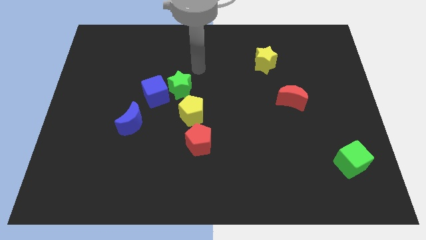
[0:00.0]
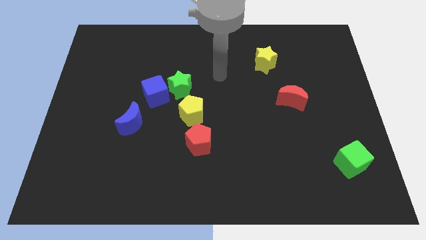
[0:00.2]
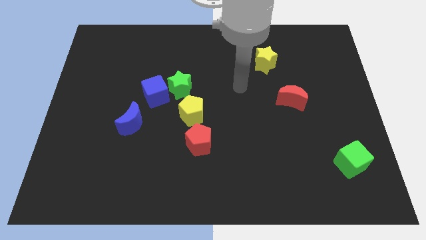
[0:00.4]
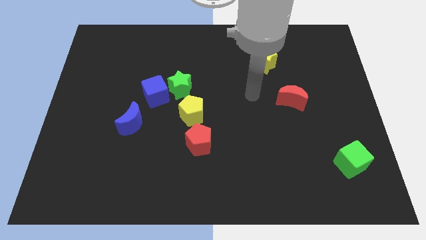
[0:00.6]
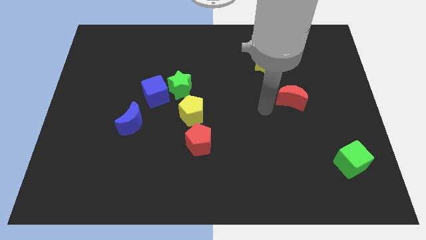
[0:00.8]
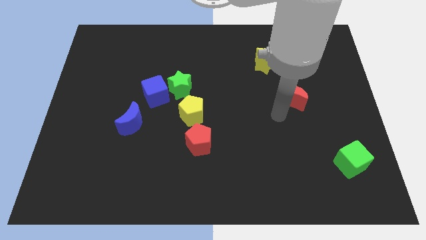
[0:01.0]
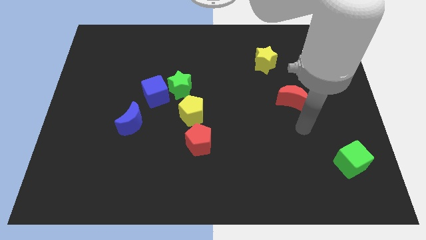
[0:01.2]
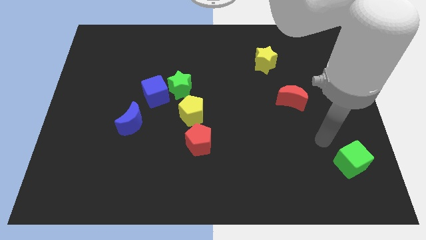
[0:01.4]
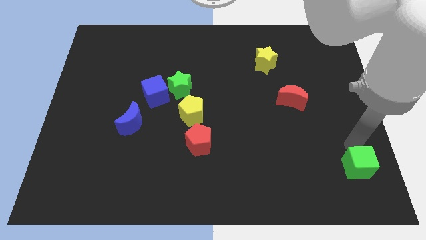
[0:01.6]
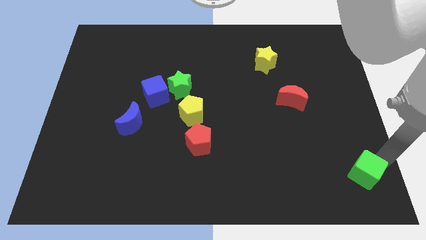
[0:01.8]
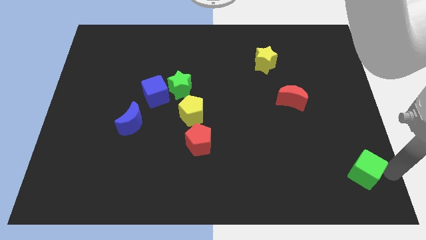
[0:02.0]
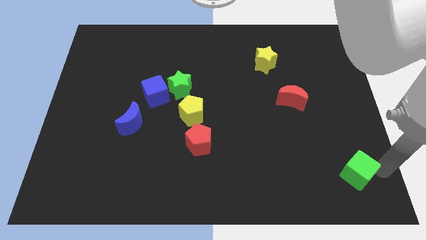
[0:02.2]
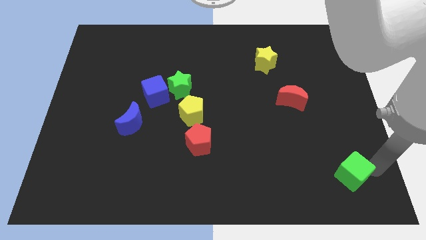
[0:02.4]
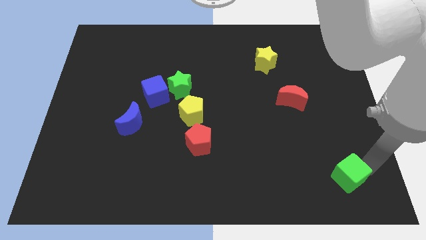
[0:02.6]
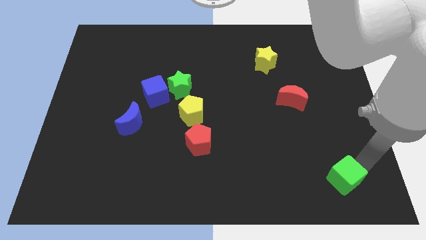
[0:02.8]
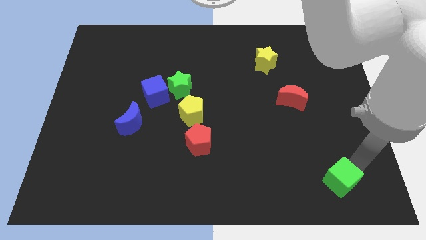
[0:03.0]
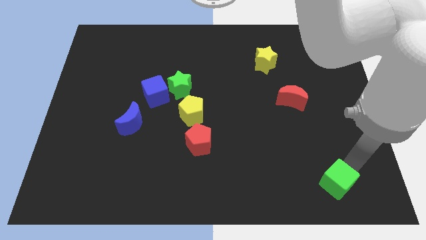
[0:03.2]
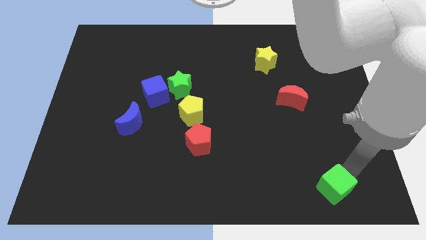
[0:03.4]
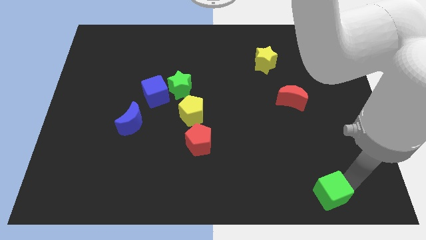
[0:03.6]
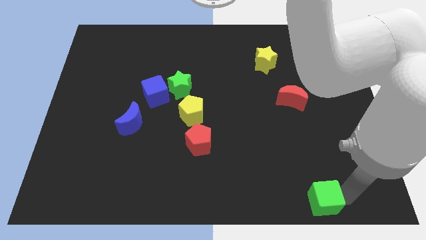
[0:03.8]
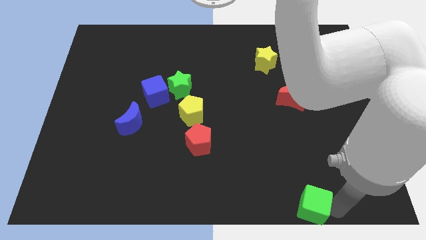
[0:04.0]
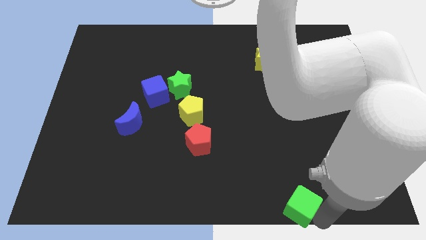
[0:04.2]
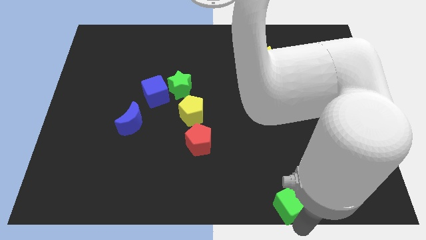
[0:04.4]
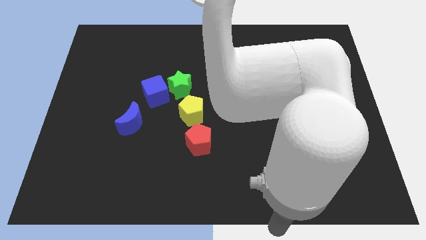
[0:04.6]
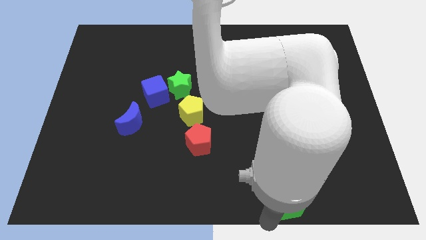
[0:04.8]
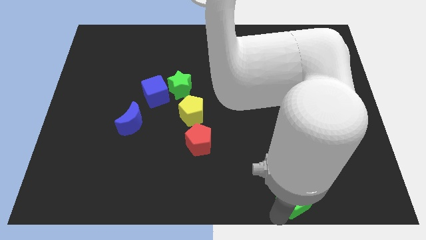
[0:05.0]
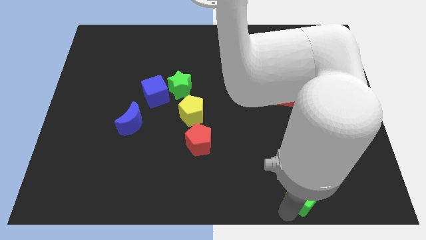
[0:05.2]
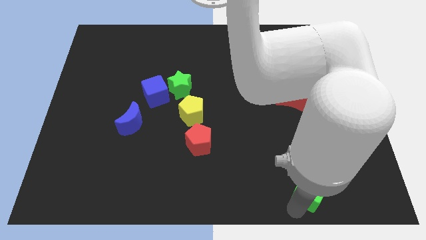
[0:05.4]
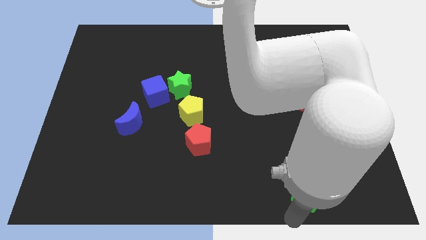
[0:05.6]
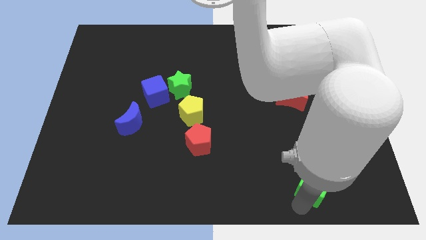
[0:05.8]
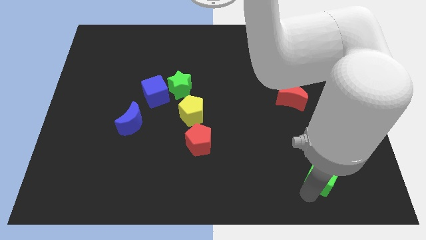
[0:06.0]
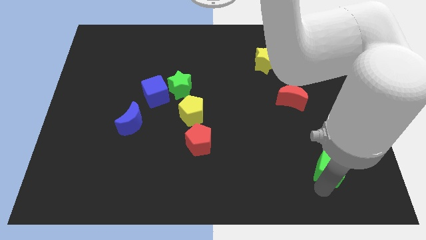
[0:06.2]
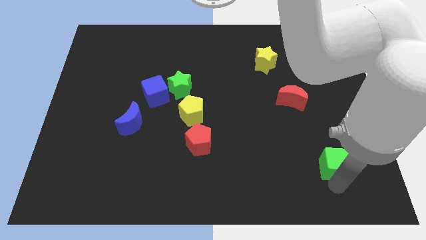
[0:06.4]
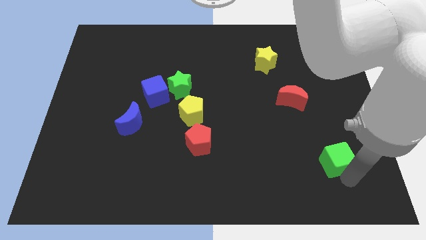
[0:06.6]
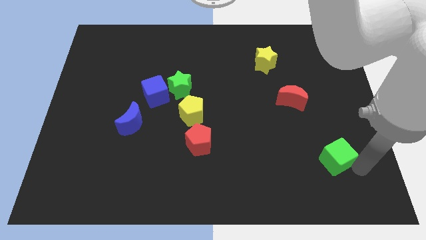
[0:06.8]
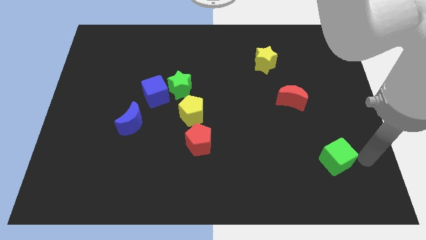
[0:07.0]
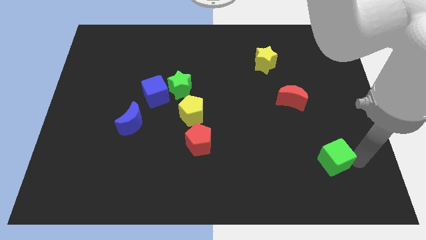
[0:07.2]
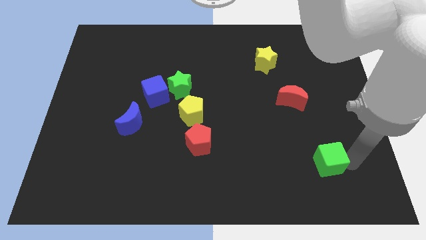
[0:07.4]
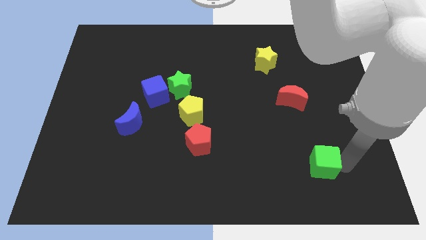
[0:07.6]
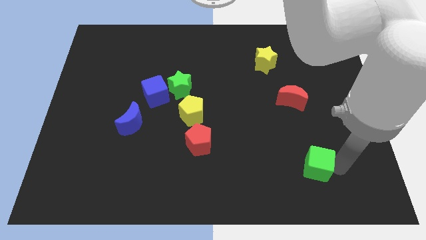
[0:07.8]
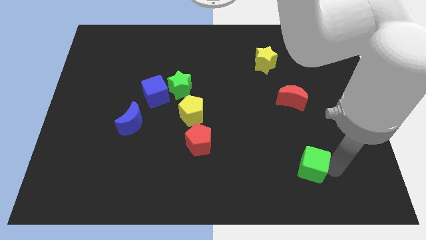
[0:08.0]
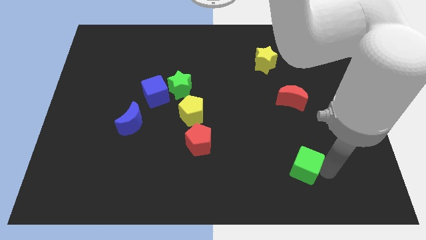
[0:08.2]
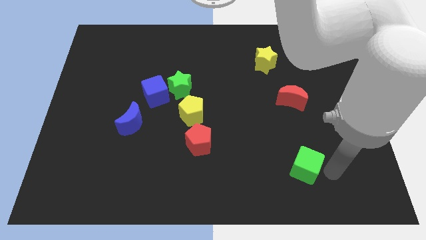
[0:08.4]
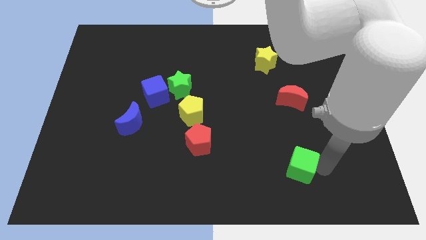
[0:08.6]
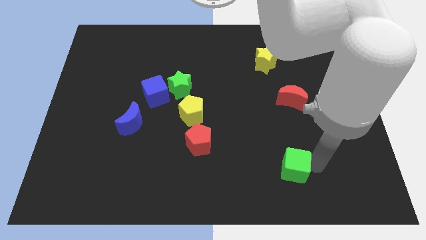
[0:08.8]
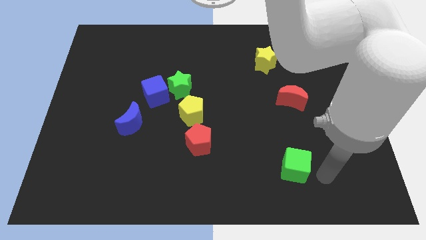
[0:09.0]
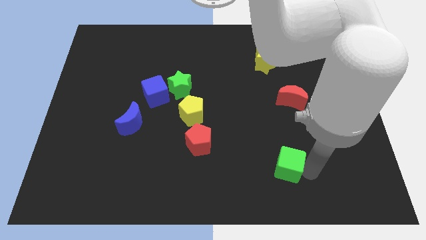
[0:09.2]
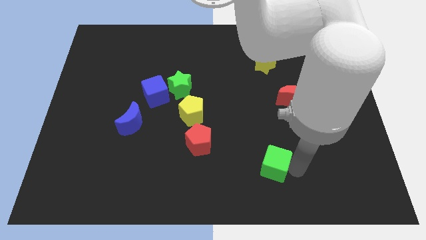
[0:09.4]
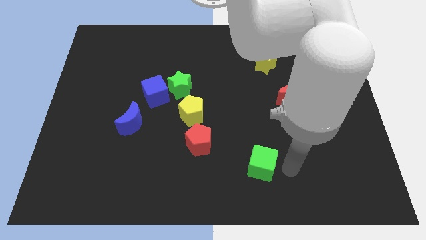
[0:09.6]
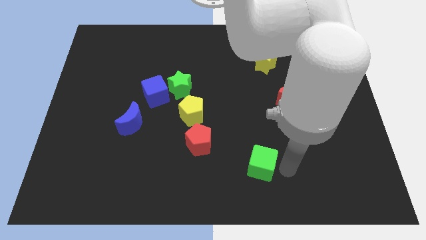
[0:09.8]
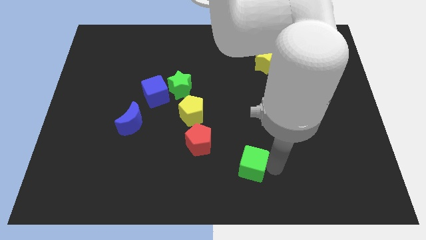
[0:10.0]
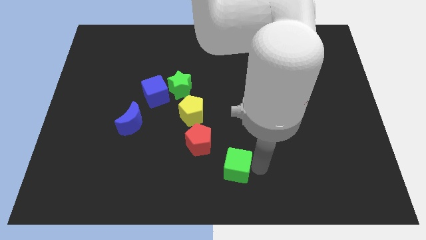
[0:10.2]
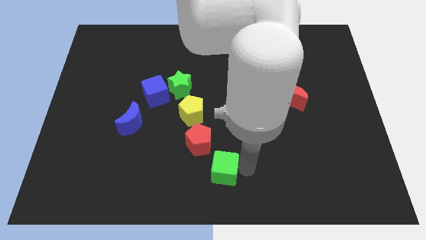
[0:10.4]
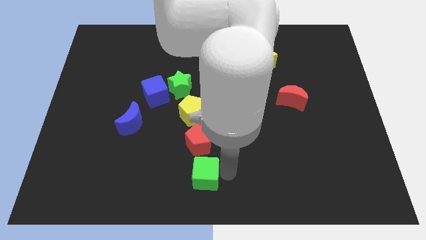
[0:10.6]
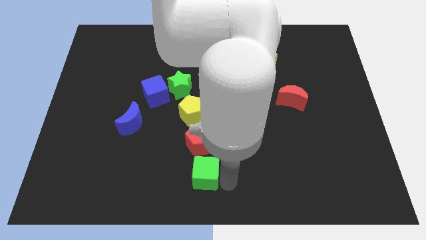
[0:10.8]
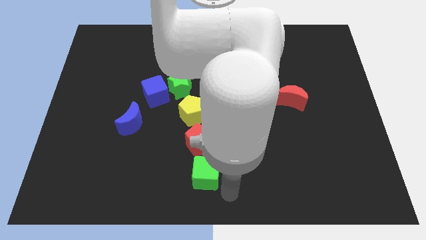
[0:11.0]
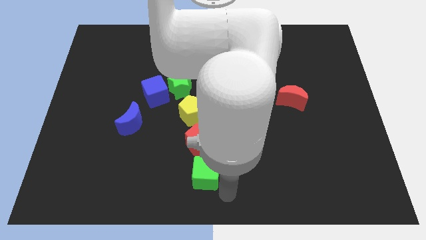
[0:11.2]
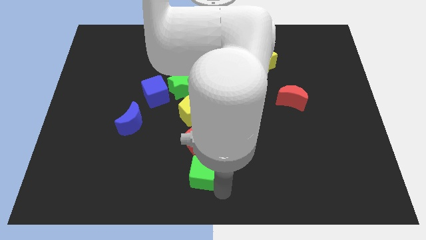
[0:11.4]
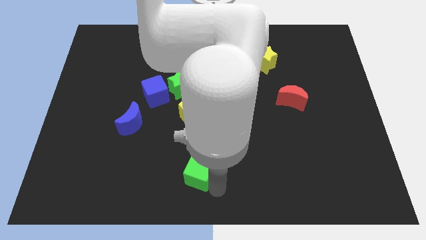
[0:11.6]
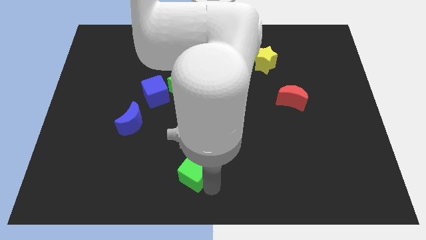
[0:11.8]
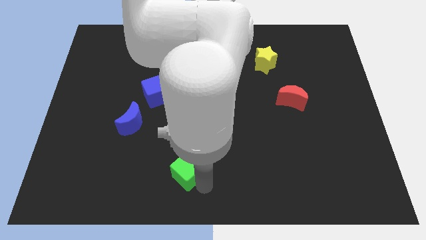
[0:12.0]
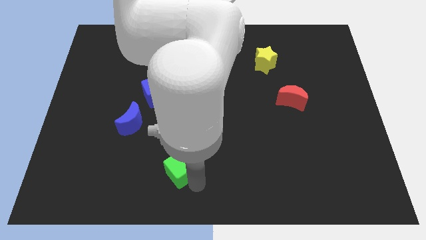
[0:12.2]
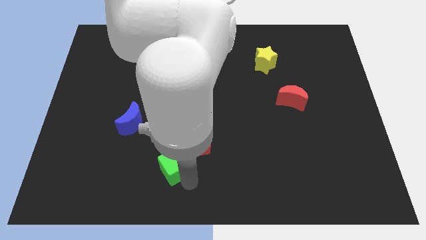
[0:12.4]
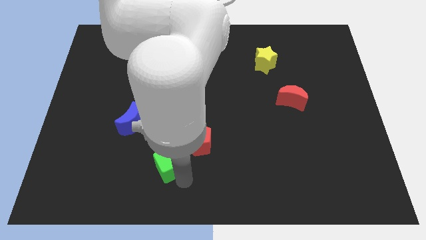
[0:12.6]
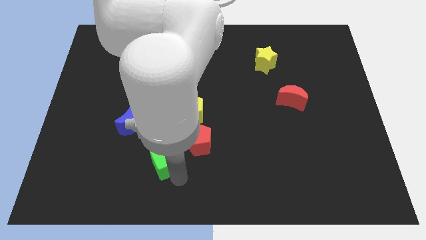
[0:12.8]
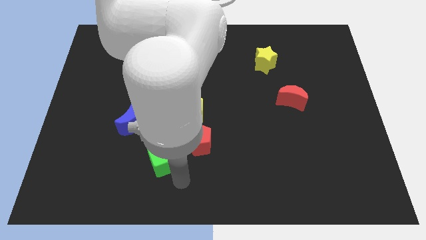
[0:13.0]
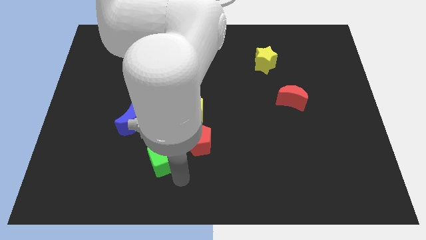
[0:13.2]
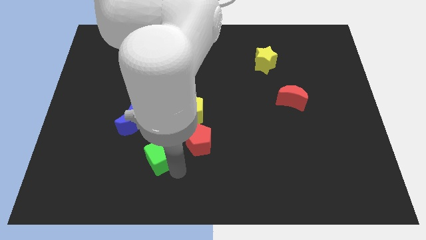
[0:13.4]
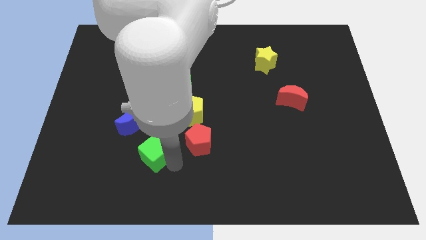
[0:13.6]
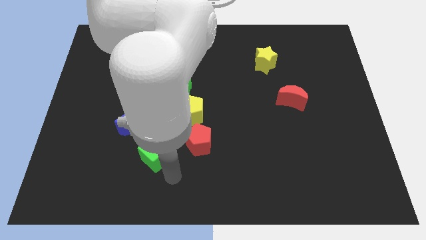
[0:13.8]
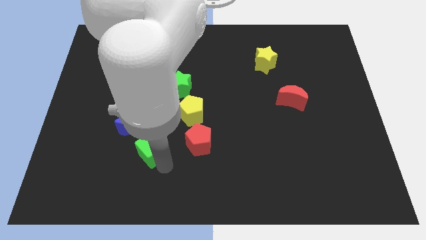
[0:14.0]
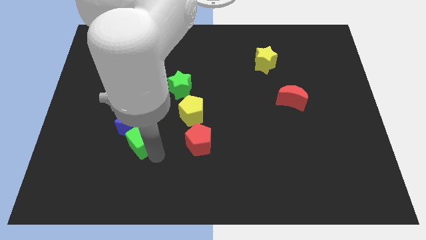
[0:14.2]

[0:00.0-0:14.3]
put the green cube to the blue moon
